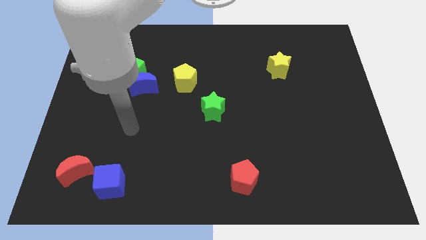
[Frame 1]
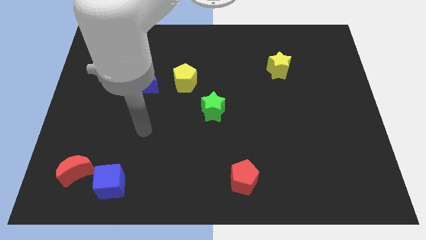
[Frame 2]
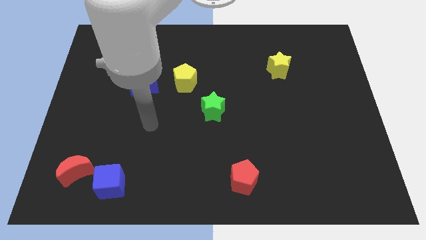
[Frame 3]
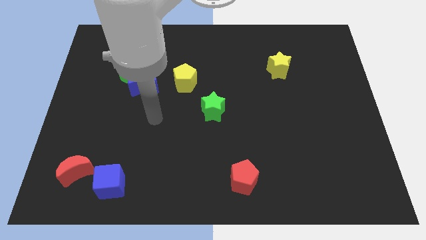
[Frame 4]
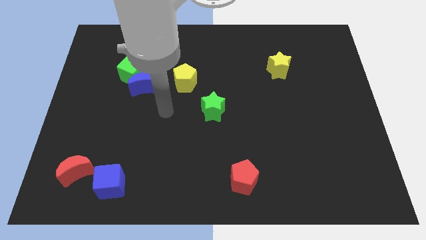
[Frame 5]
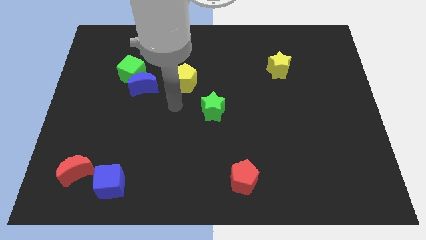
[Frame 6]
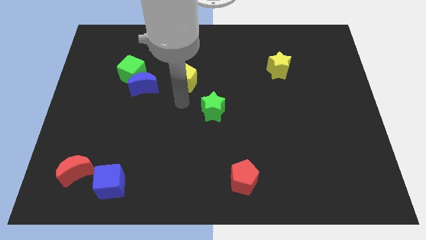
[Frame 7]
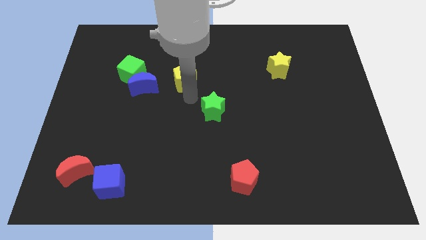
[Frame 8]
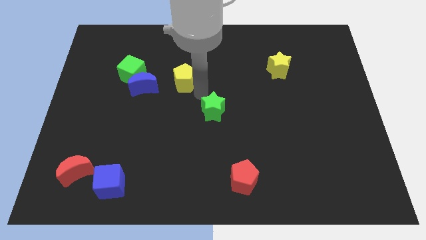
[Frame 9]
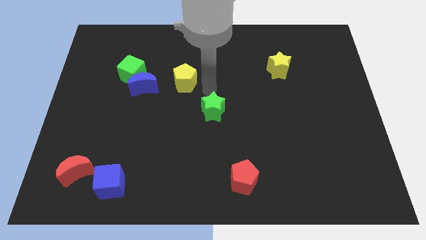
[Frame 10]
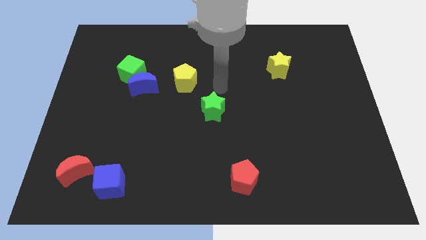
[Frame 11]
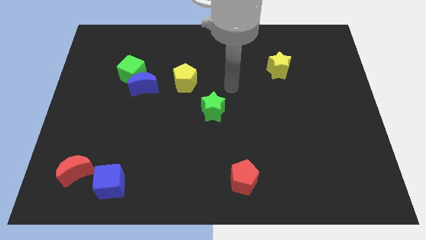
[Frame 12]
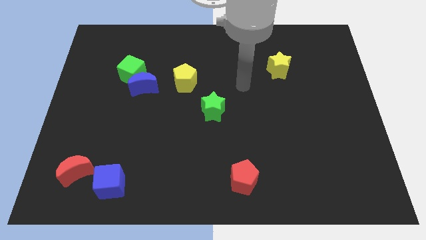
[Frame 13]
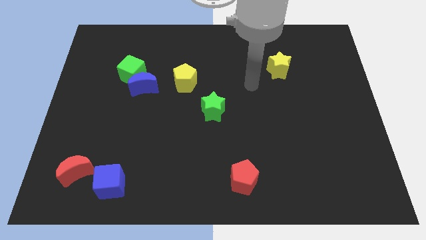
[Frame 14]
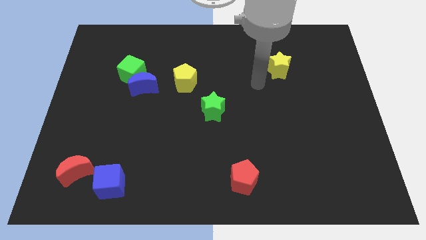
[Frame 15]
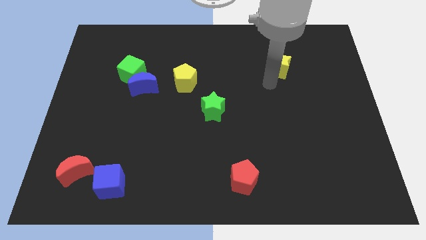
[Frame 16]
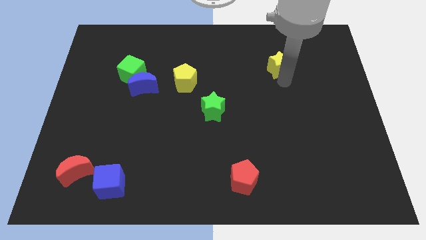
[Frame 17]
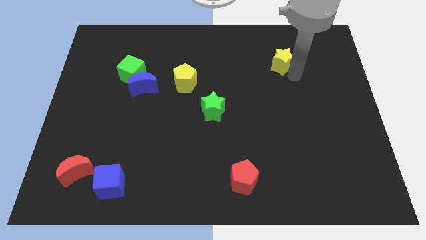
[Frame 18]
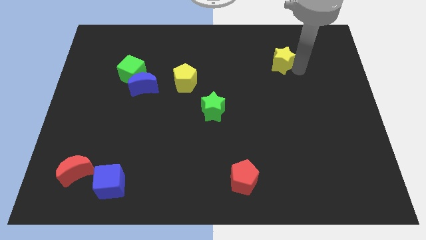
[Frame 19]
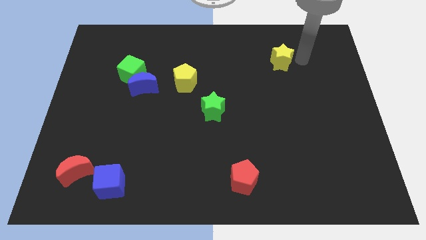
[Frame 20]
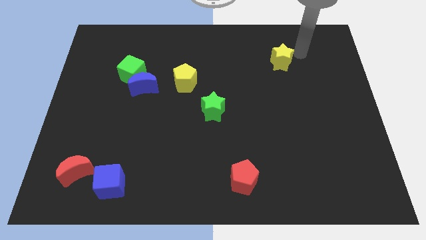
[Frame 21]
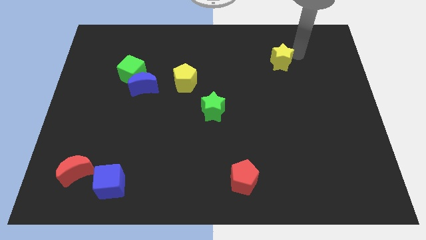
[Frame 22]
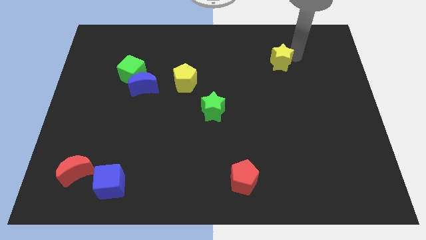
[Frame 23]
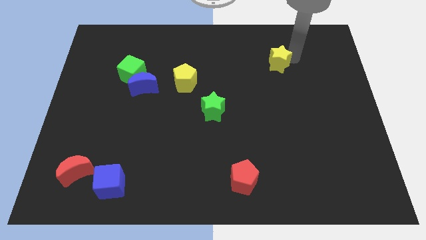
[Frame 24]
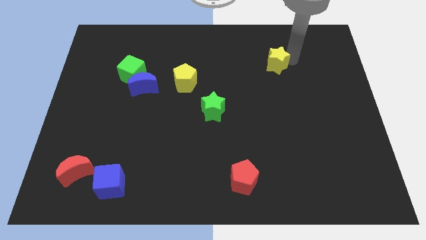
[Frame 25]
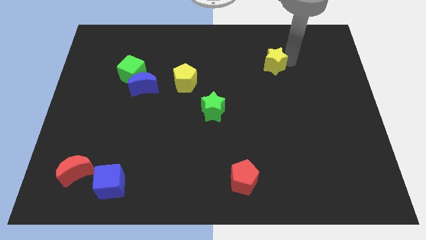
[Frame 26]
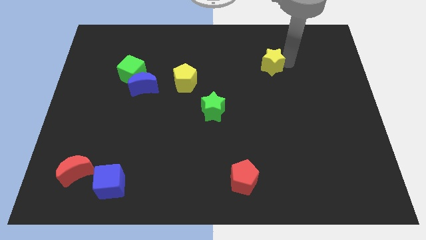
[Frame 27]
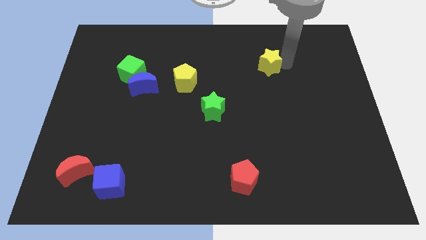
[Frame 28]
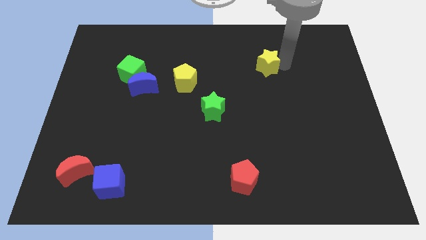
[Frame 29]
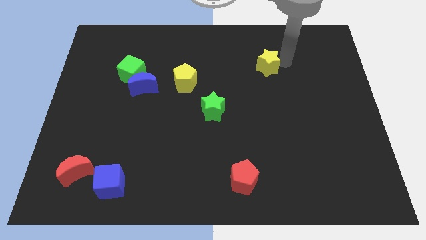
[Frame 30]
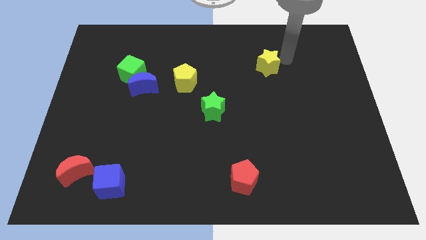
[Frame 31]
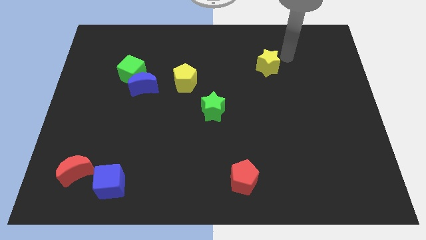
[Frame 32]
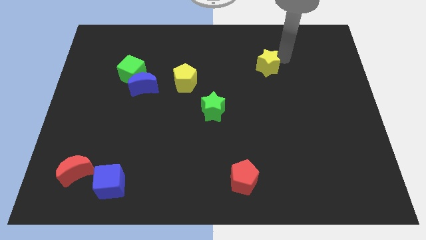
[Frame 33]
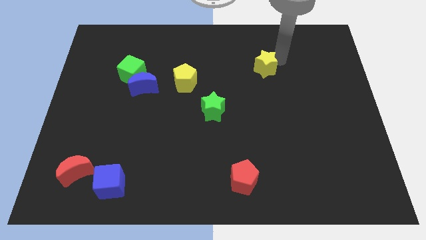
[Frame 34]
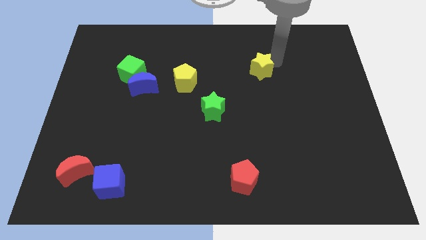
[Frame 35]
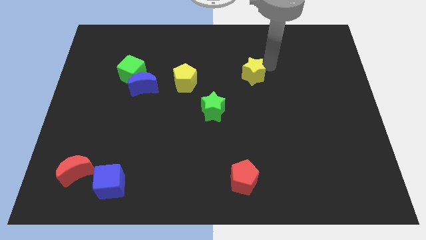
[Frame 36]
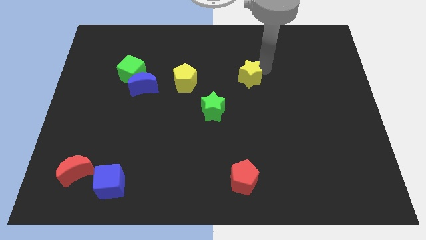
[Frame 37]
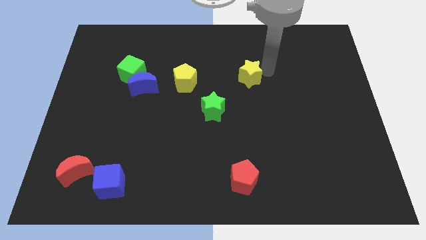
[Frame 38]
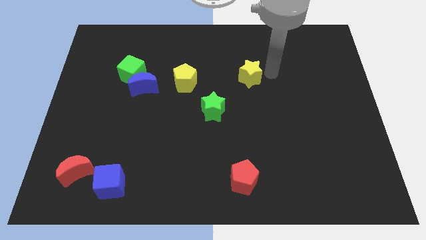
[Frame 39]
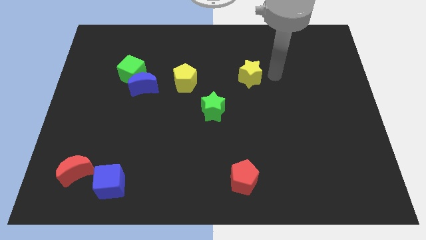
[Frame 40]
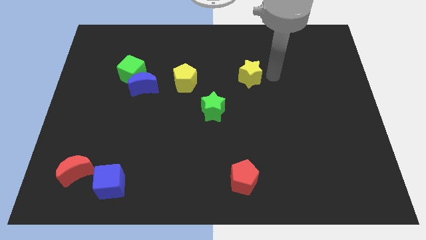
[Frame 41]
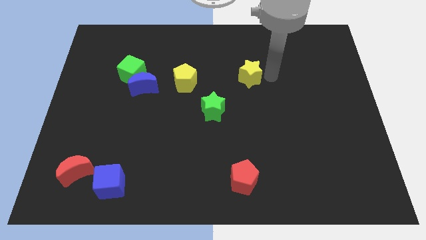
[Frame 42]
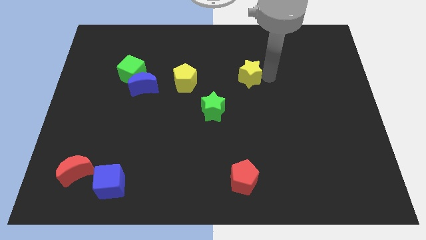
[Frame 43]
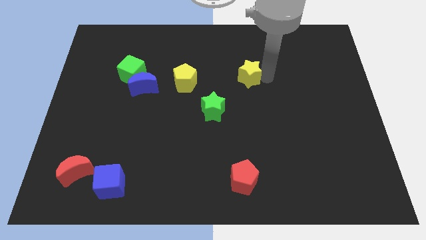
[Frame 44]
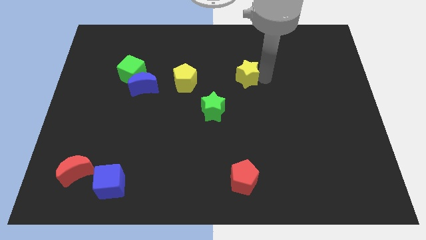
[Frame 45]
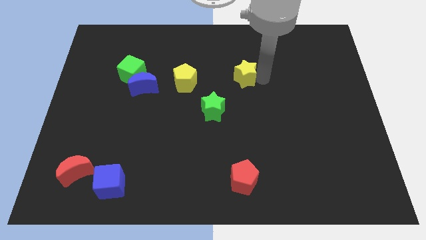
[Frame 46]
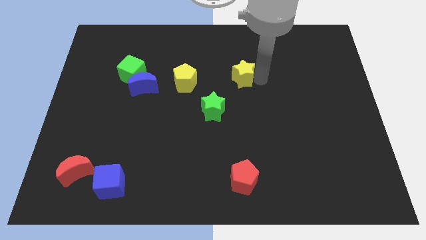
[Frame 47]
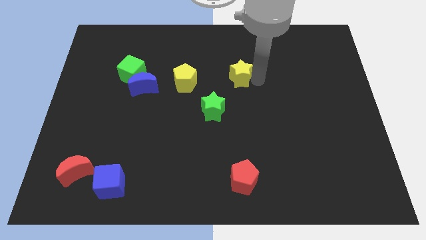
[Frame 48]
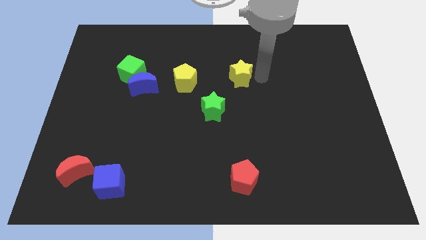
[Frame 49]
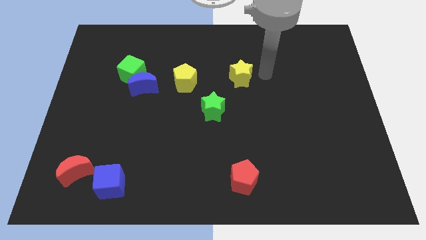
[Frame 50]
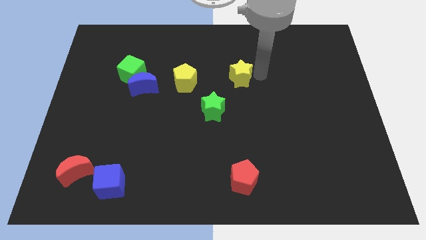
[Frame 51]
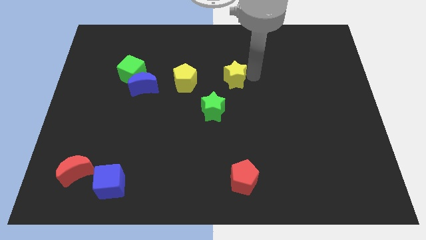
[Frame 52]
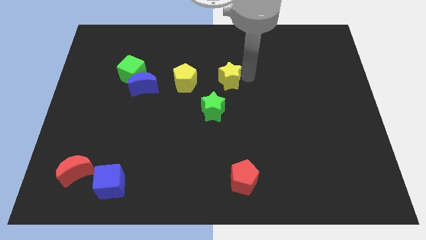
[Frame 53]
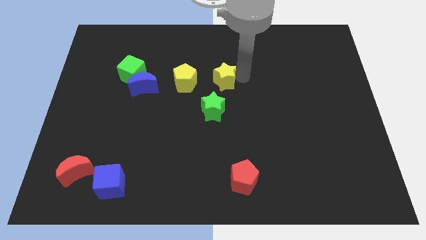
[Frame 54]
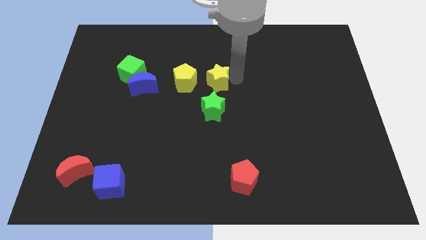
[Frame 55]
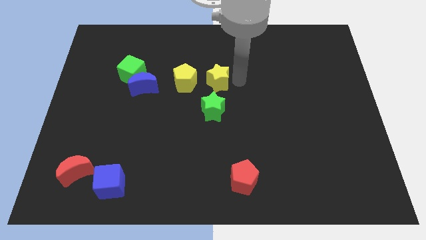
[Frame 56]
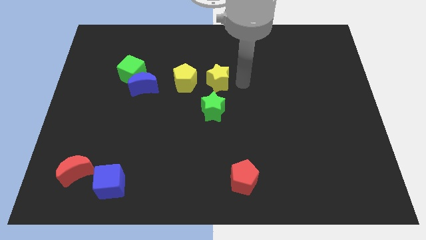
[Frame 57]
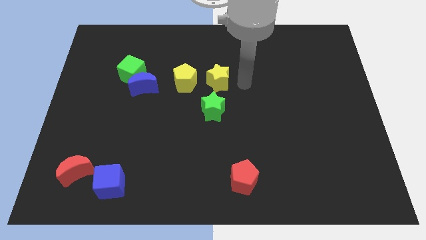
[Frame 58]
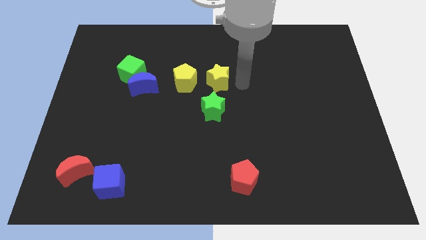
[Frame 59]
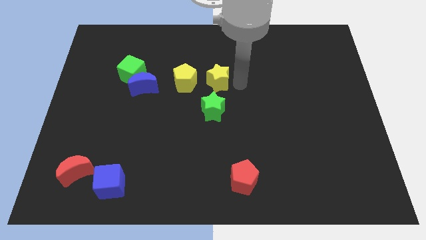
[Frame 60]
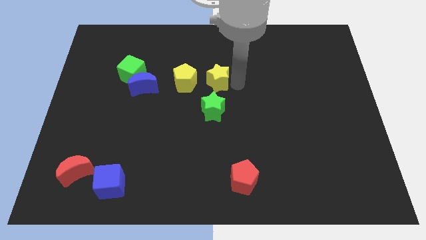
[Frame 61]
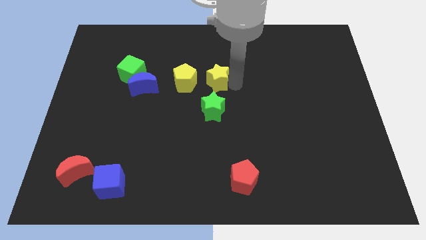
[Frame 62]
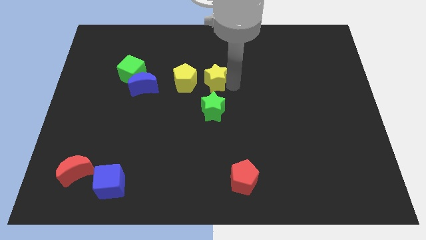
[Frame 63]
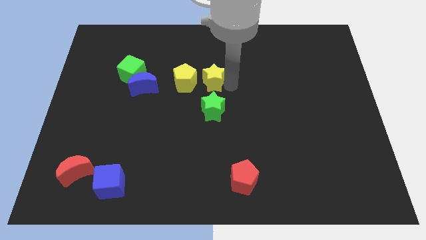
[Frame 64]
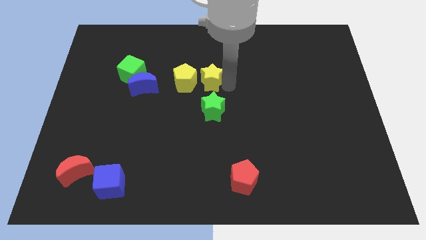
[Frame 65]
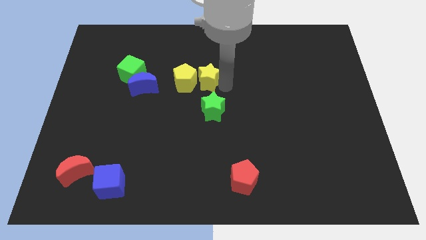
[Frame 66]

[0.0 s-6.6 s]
move the yellow star close to the yellow pentagon
